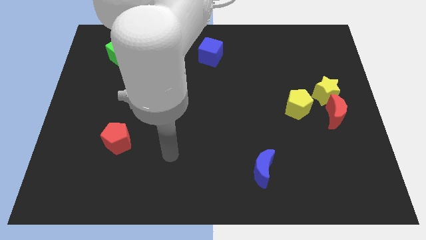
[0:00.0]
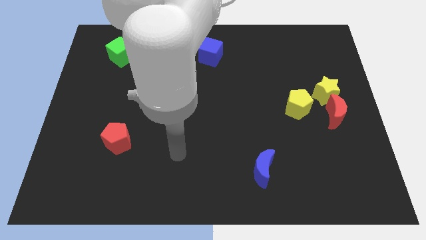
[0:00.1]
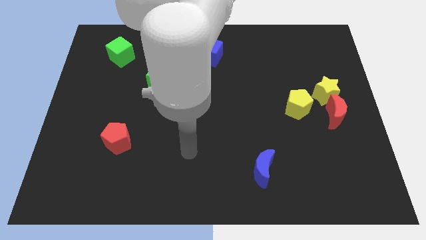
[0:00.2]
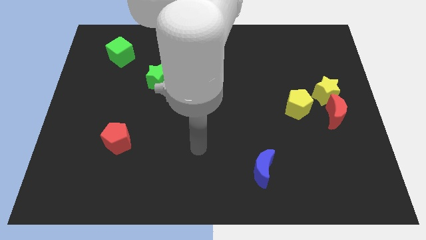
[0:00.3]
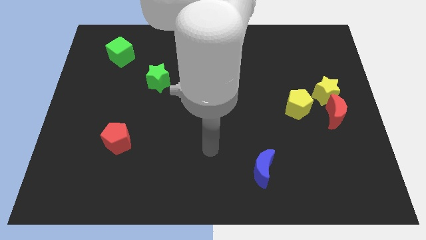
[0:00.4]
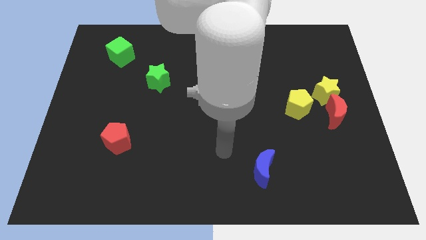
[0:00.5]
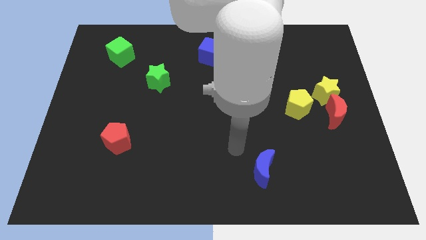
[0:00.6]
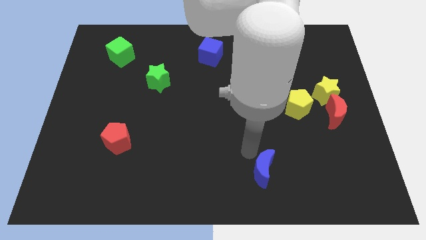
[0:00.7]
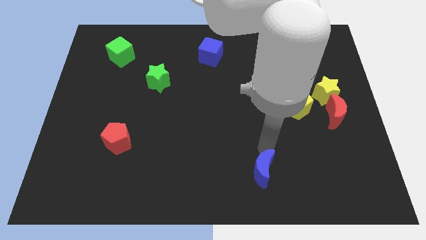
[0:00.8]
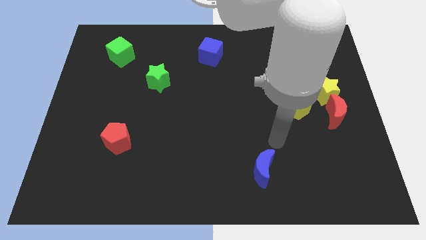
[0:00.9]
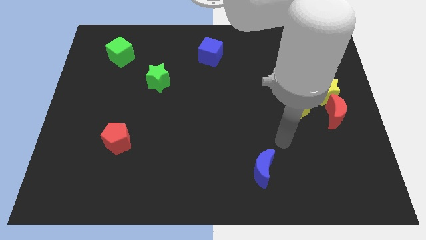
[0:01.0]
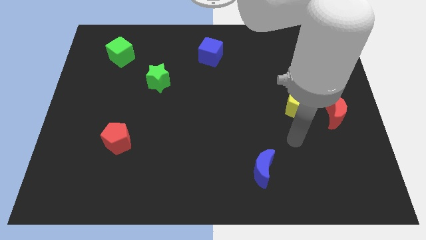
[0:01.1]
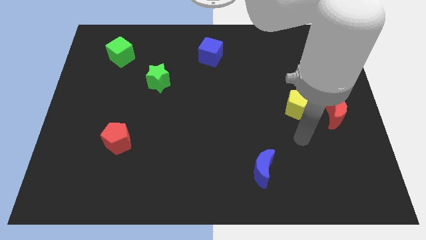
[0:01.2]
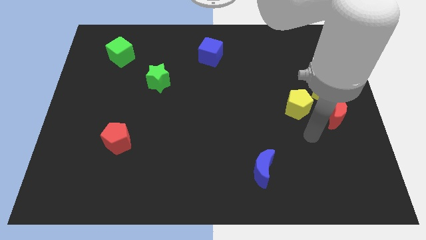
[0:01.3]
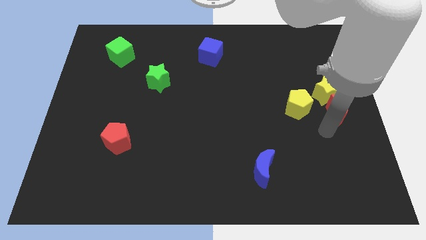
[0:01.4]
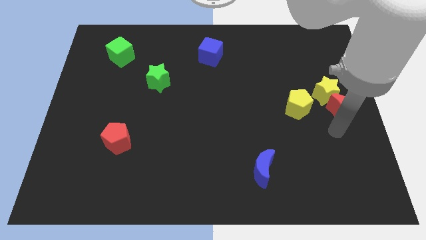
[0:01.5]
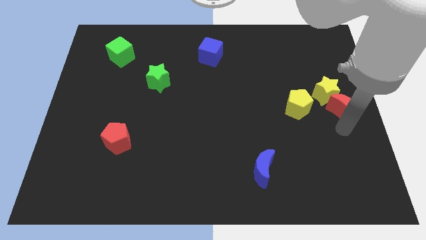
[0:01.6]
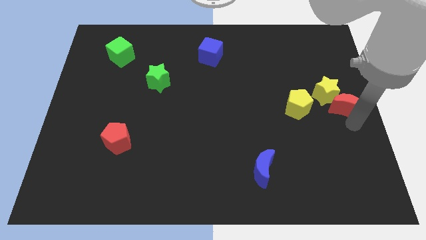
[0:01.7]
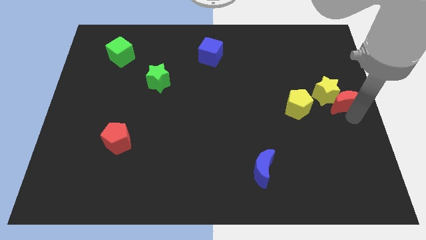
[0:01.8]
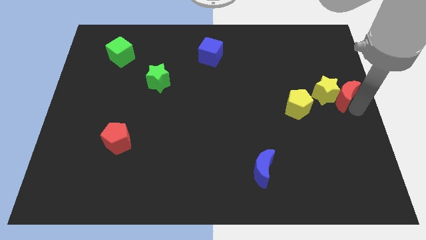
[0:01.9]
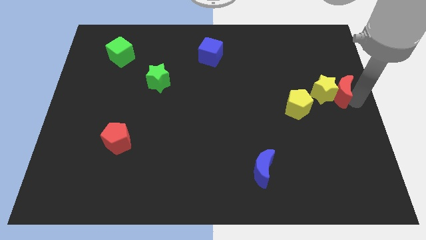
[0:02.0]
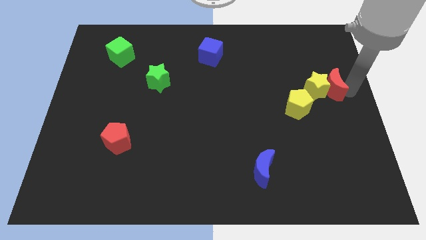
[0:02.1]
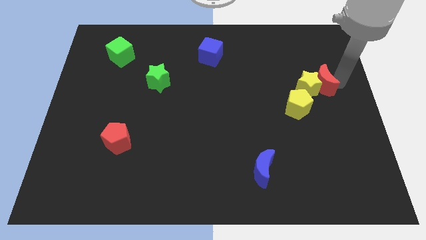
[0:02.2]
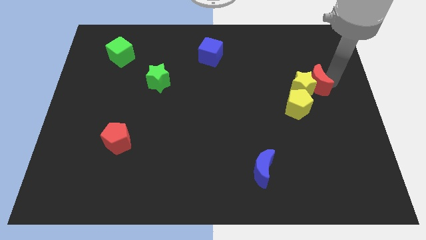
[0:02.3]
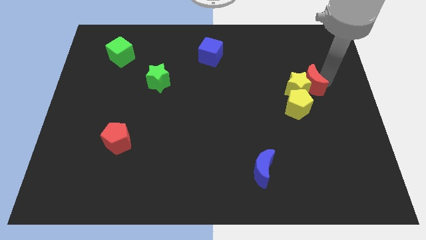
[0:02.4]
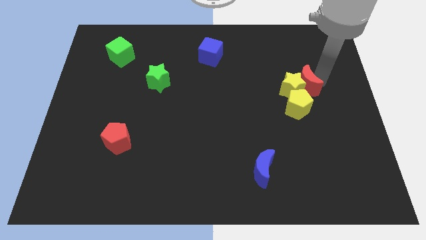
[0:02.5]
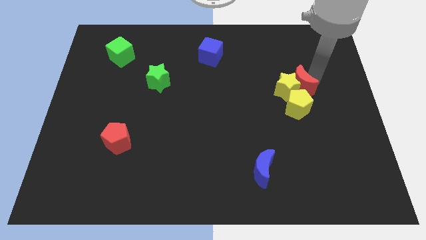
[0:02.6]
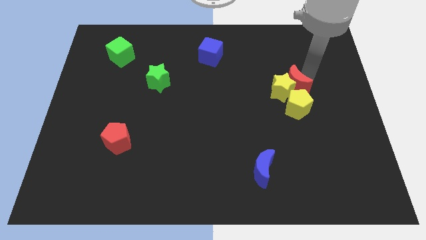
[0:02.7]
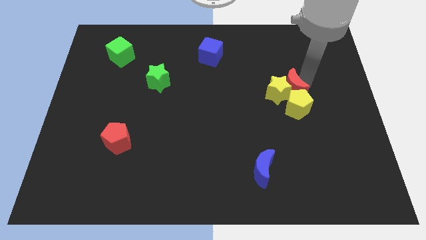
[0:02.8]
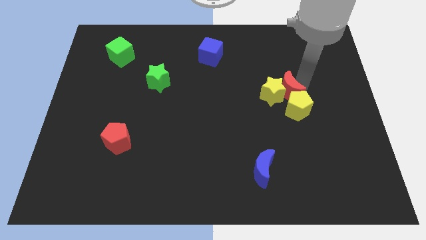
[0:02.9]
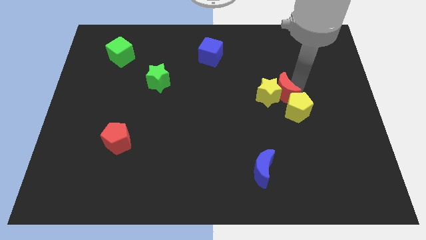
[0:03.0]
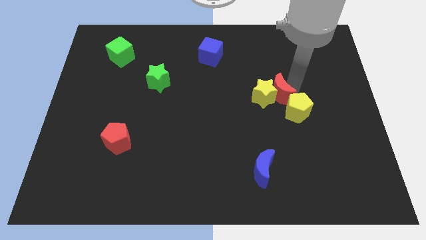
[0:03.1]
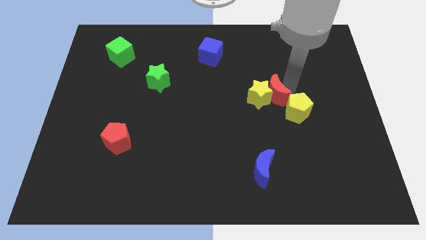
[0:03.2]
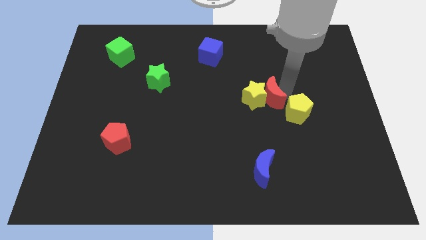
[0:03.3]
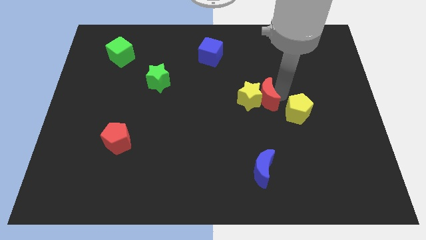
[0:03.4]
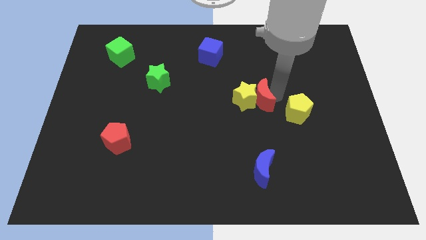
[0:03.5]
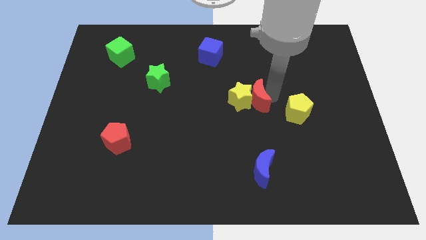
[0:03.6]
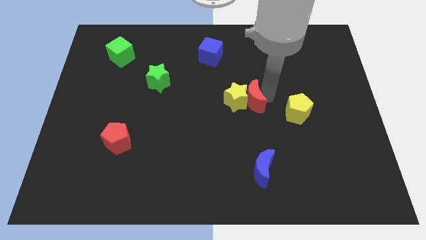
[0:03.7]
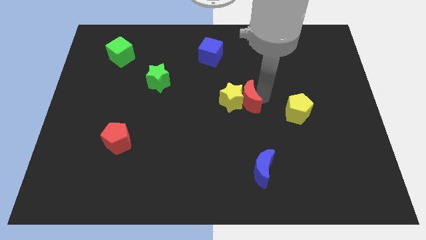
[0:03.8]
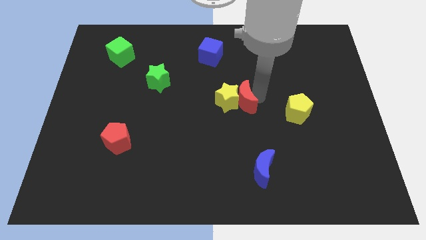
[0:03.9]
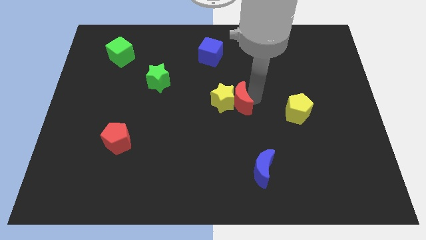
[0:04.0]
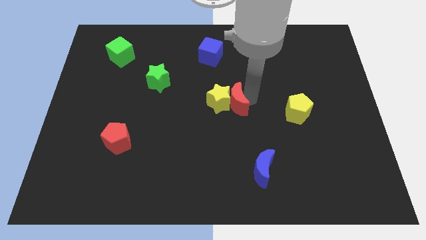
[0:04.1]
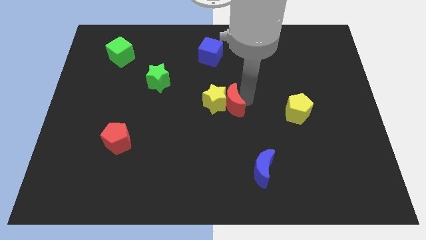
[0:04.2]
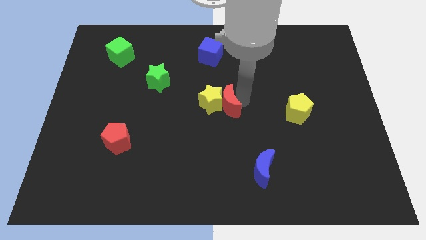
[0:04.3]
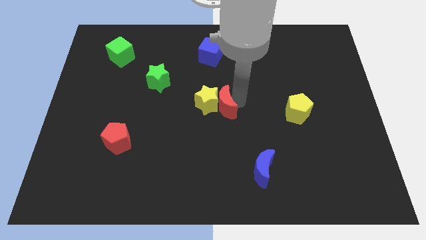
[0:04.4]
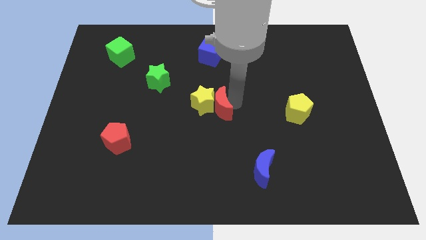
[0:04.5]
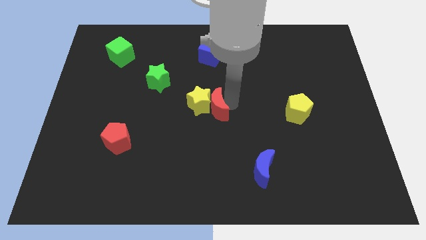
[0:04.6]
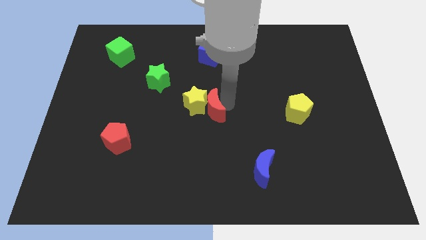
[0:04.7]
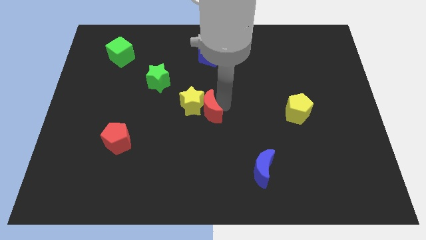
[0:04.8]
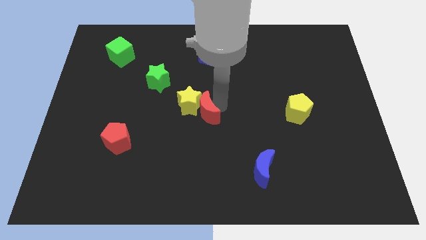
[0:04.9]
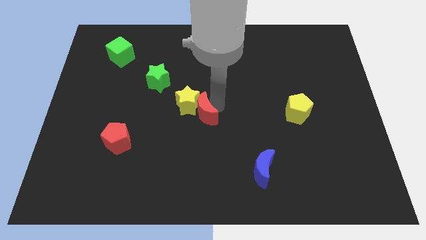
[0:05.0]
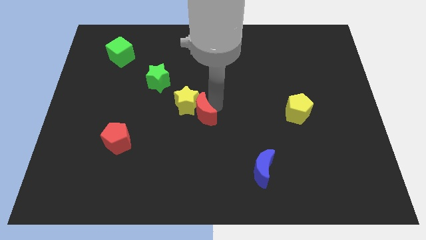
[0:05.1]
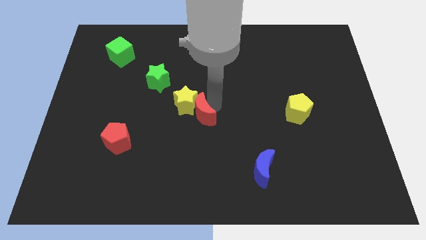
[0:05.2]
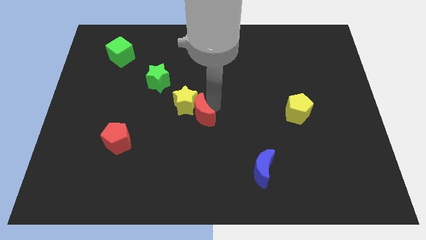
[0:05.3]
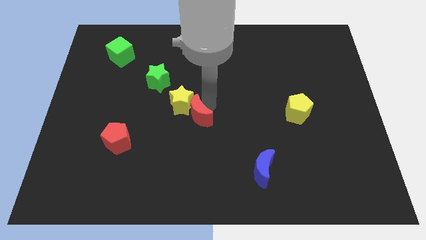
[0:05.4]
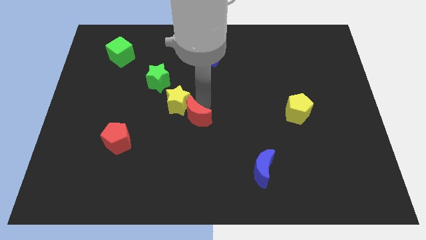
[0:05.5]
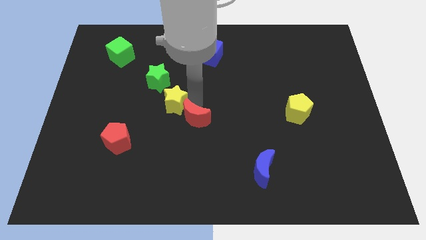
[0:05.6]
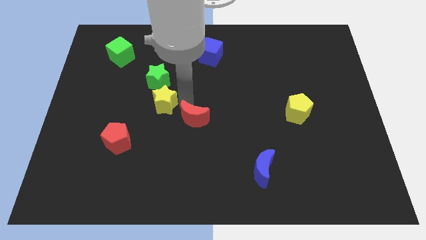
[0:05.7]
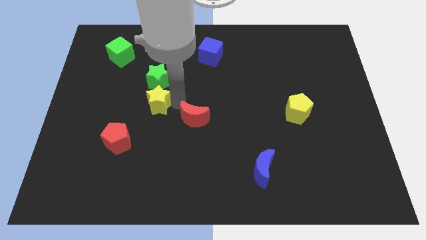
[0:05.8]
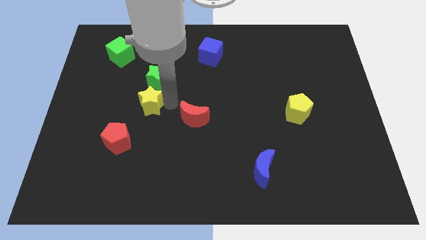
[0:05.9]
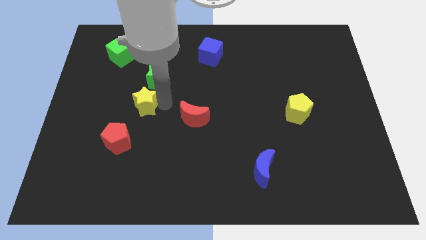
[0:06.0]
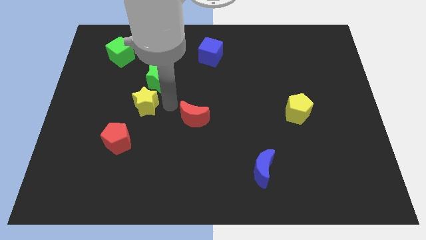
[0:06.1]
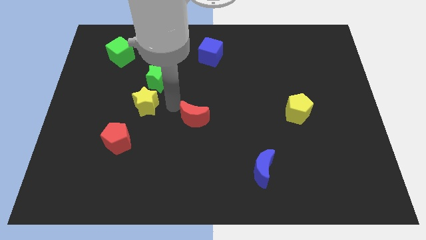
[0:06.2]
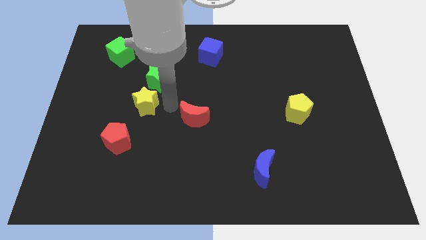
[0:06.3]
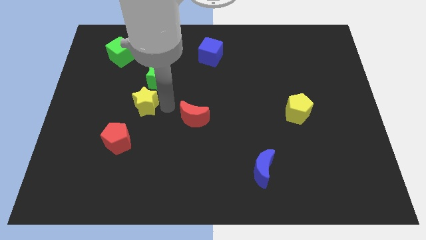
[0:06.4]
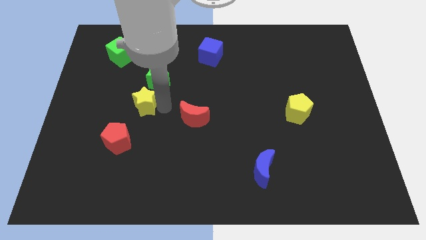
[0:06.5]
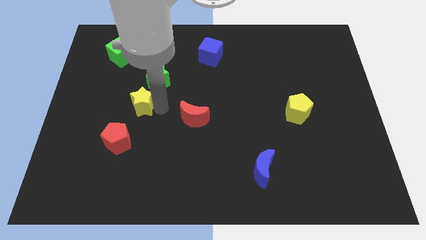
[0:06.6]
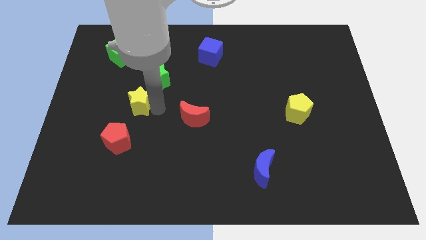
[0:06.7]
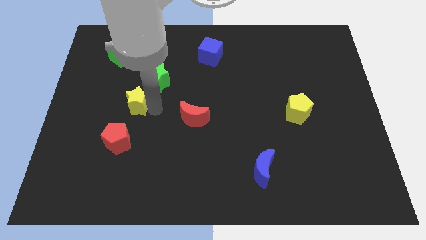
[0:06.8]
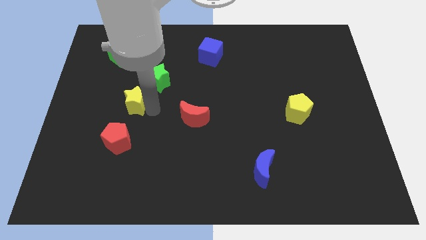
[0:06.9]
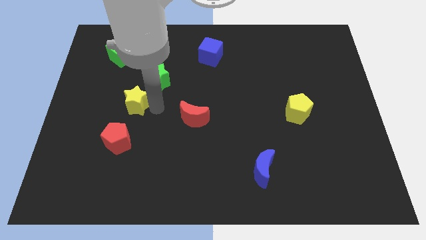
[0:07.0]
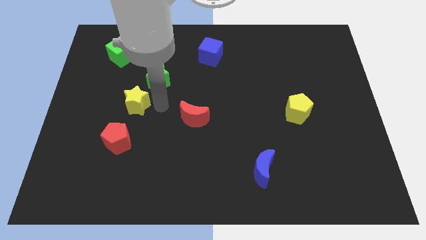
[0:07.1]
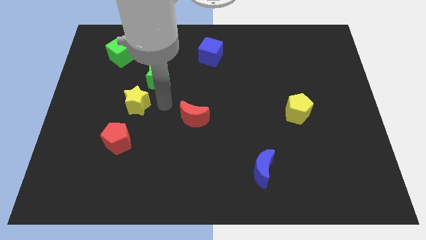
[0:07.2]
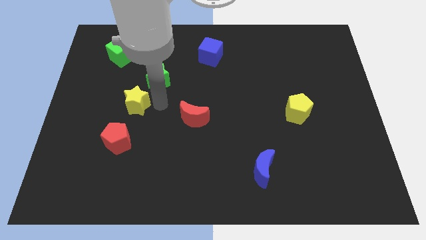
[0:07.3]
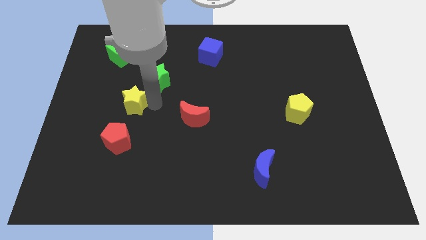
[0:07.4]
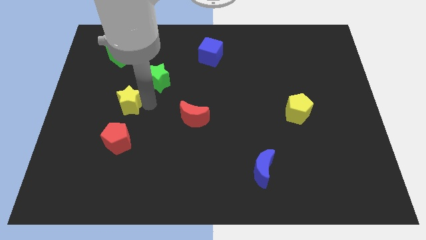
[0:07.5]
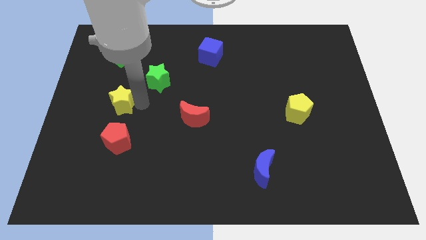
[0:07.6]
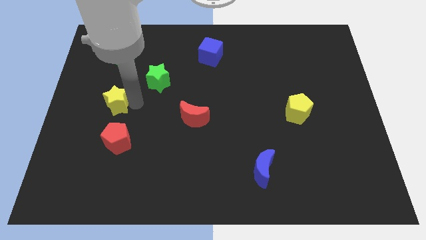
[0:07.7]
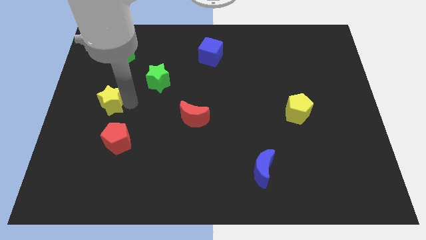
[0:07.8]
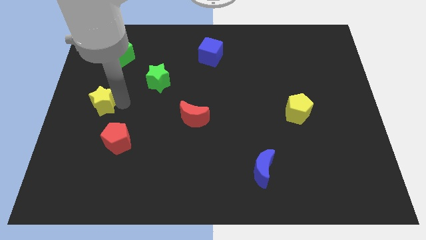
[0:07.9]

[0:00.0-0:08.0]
slide the yellow star to the left side of the board
